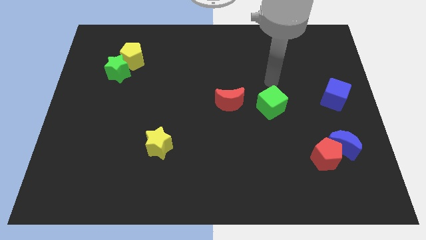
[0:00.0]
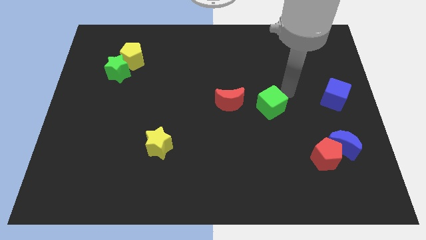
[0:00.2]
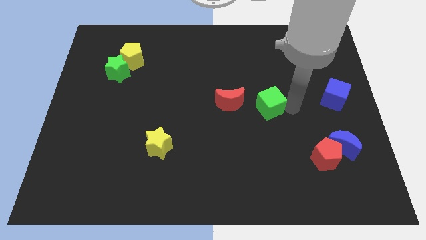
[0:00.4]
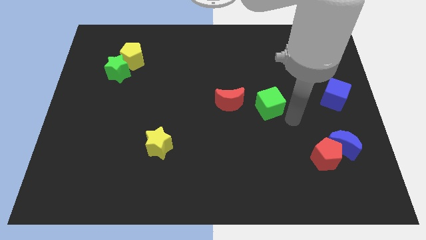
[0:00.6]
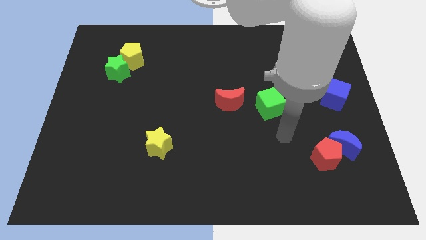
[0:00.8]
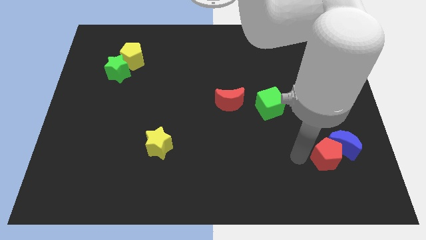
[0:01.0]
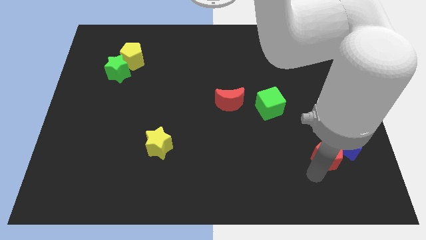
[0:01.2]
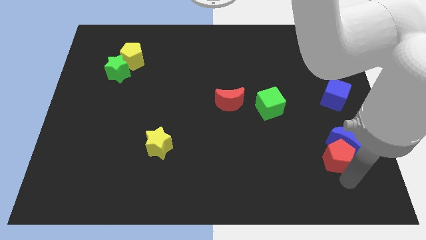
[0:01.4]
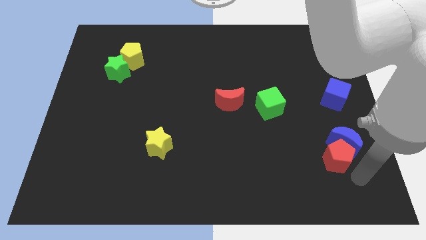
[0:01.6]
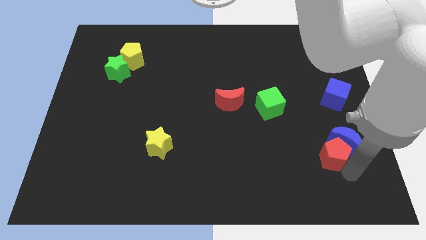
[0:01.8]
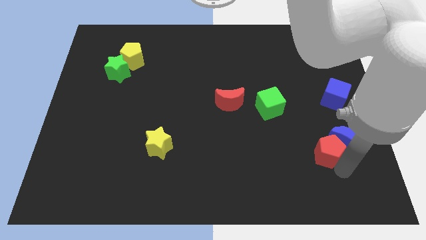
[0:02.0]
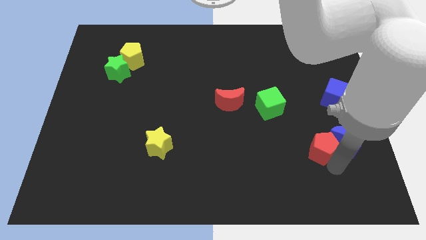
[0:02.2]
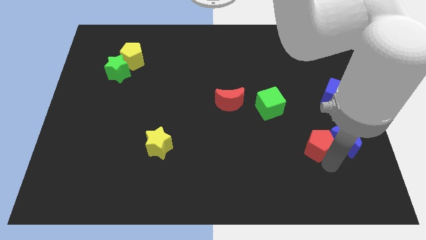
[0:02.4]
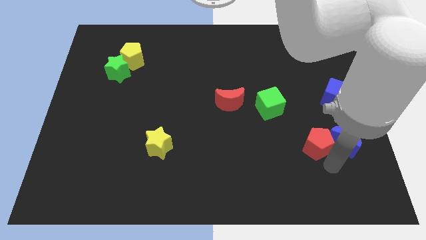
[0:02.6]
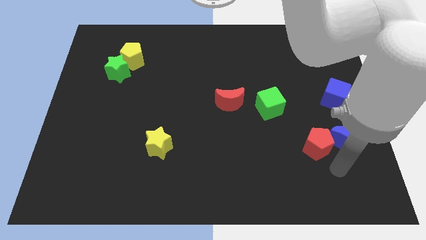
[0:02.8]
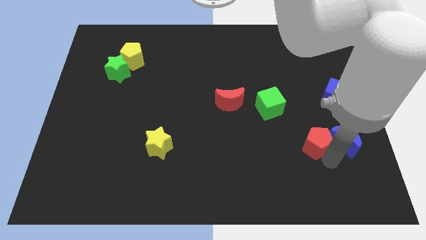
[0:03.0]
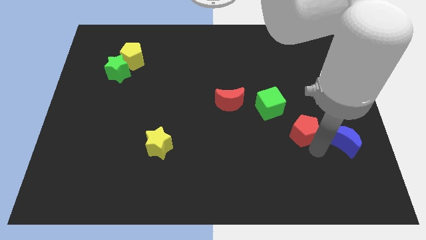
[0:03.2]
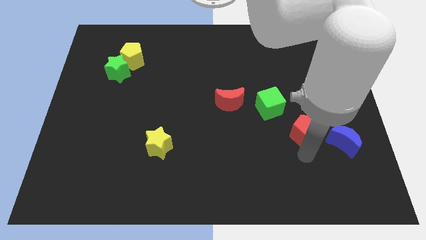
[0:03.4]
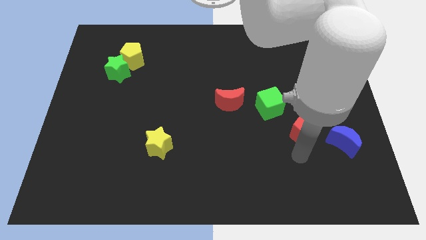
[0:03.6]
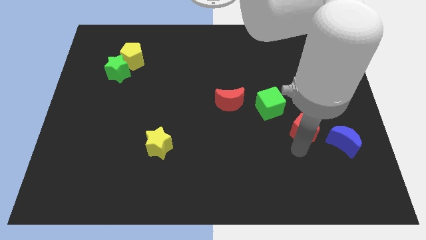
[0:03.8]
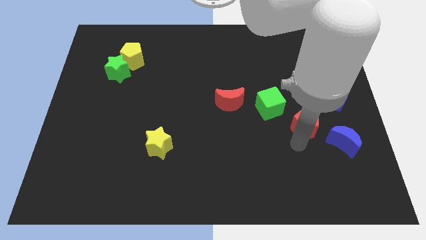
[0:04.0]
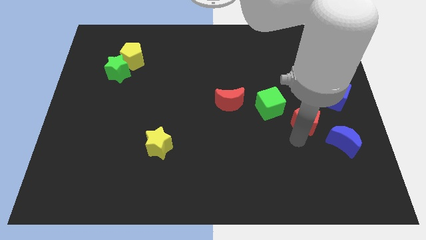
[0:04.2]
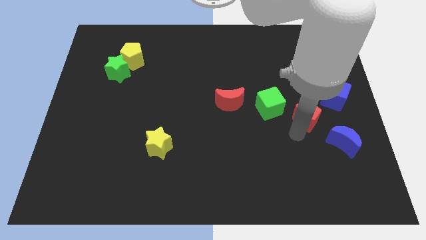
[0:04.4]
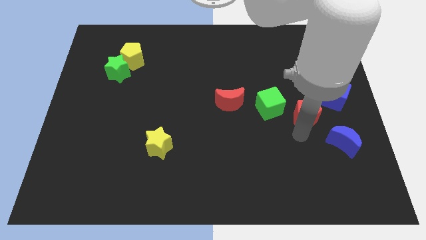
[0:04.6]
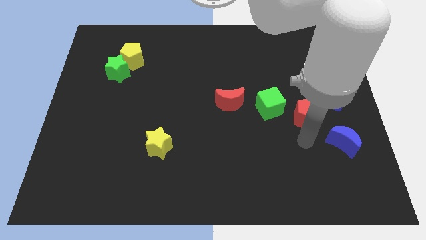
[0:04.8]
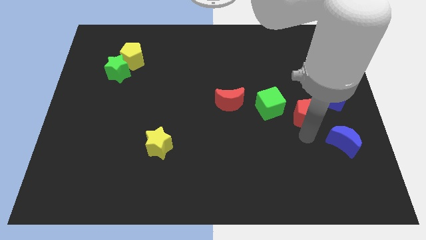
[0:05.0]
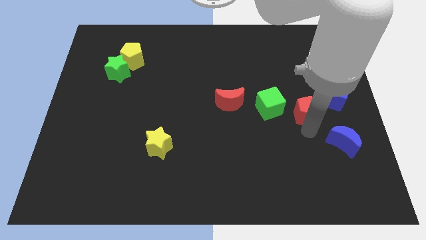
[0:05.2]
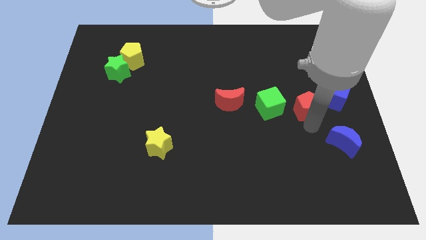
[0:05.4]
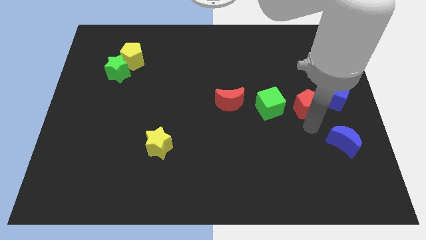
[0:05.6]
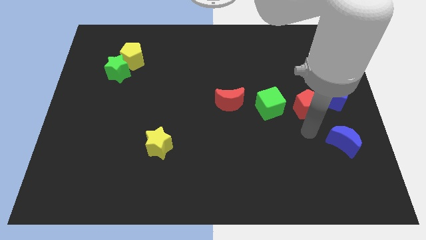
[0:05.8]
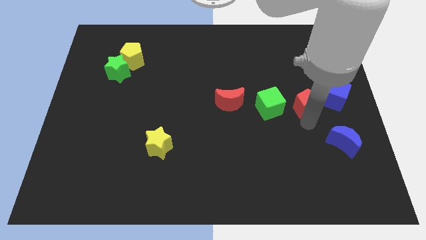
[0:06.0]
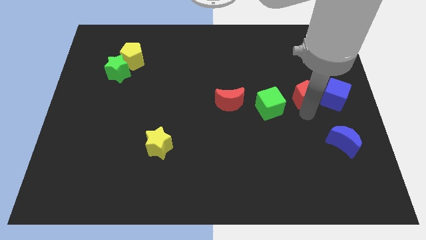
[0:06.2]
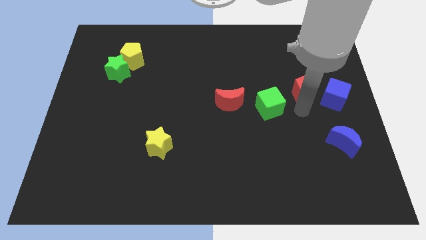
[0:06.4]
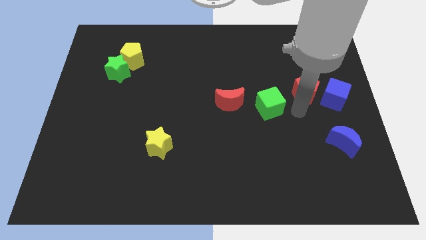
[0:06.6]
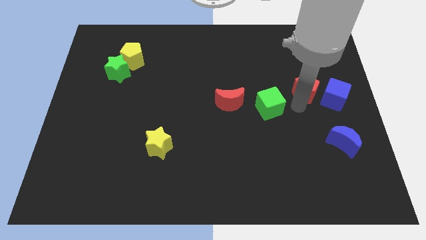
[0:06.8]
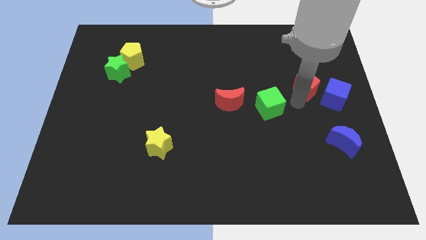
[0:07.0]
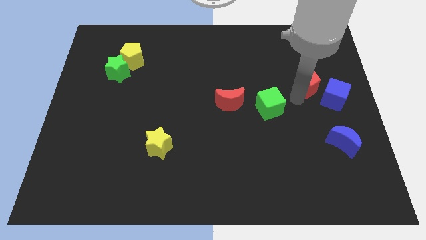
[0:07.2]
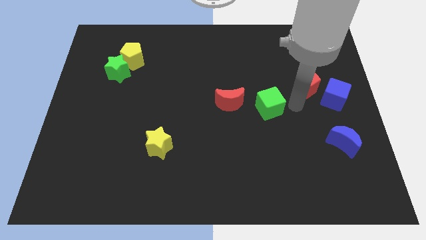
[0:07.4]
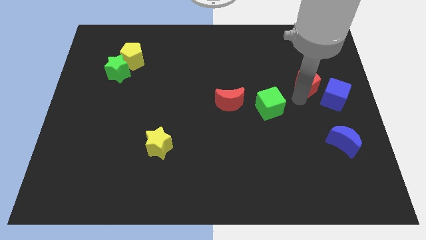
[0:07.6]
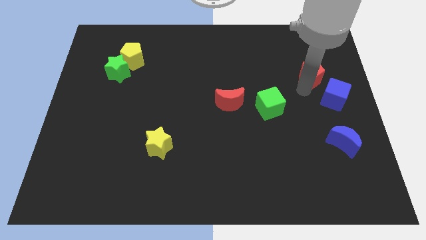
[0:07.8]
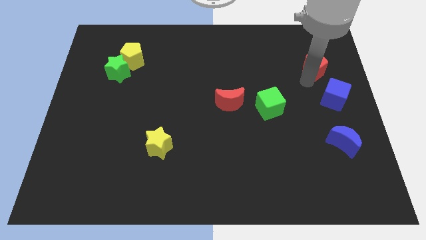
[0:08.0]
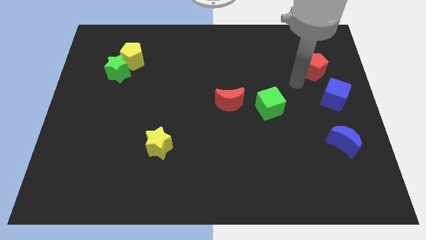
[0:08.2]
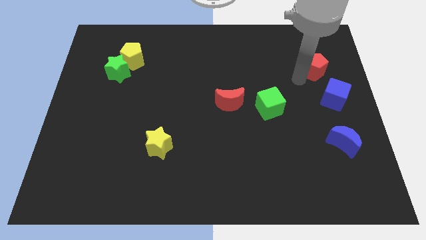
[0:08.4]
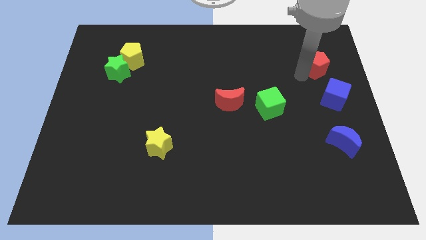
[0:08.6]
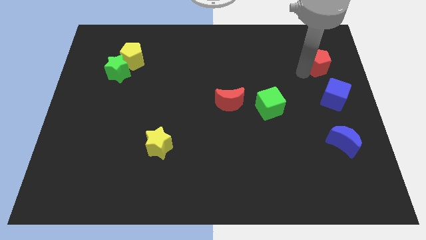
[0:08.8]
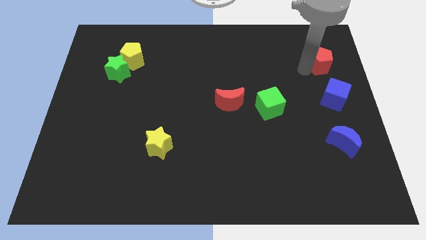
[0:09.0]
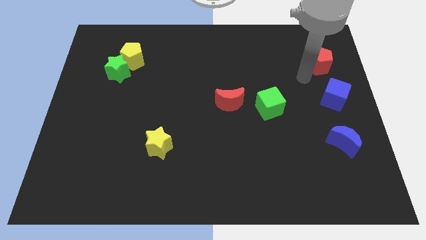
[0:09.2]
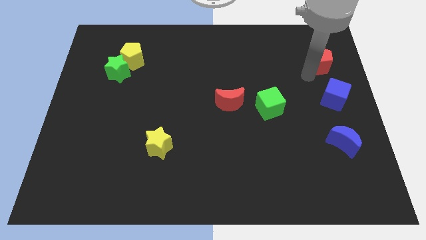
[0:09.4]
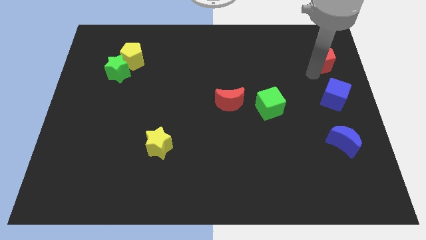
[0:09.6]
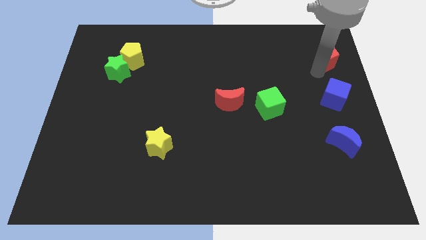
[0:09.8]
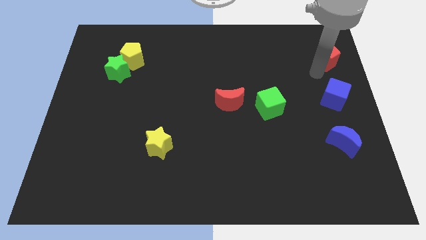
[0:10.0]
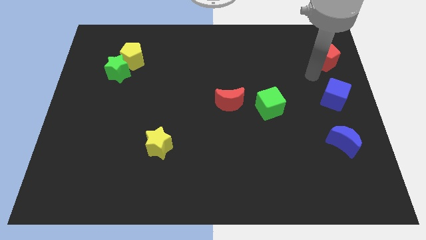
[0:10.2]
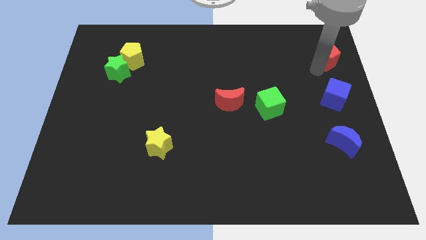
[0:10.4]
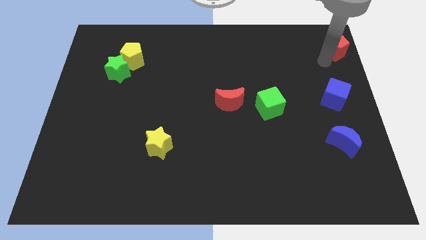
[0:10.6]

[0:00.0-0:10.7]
put the red pentagon to the top right of the board

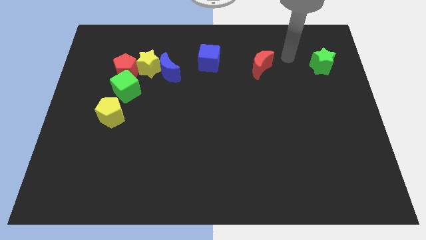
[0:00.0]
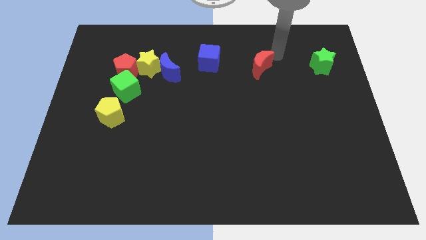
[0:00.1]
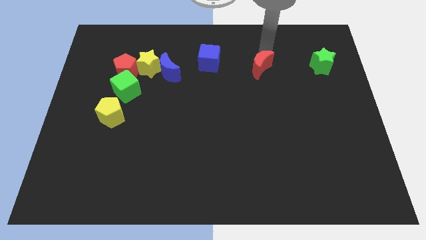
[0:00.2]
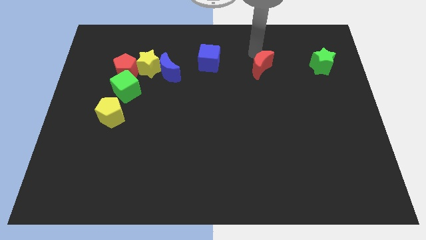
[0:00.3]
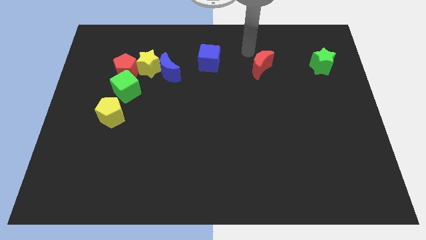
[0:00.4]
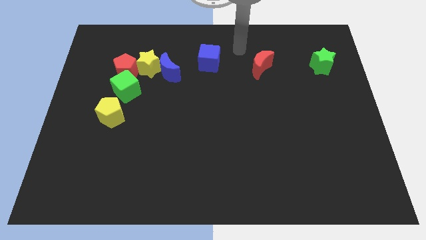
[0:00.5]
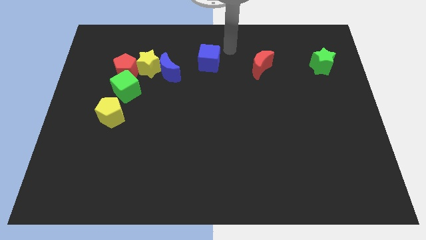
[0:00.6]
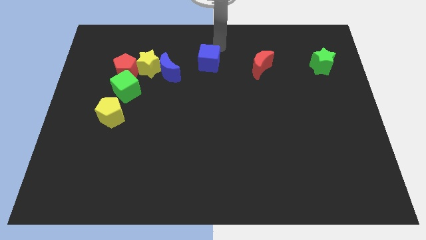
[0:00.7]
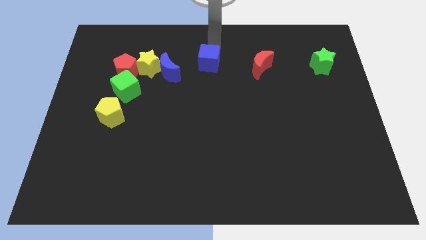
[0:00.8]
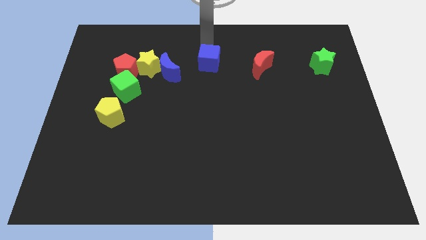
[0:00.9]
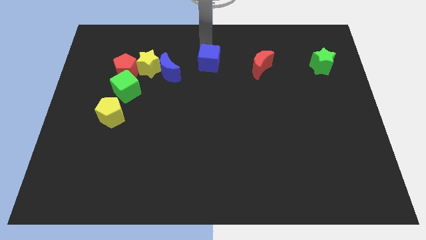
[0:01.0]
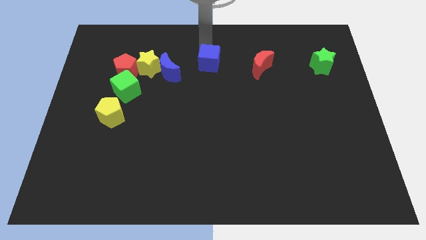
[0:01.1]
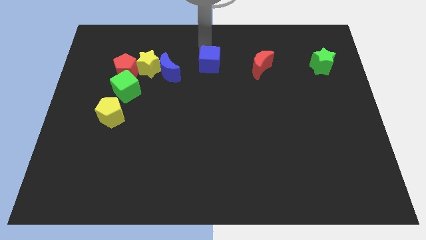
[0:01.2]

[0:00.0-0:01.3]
put the blue cube to the middle
